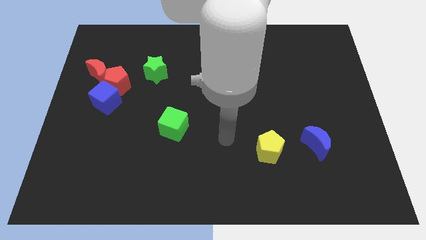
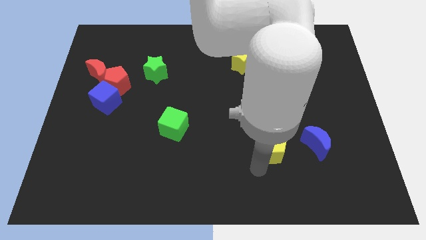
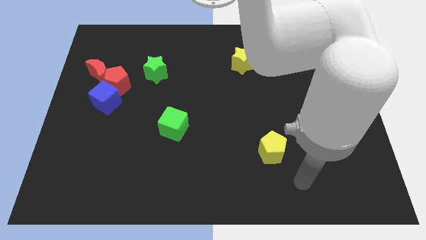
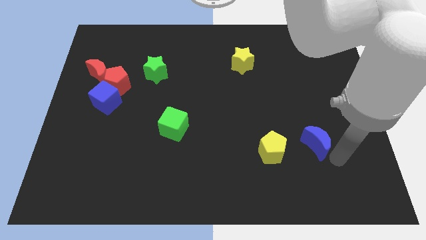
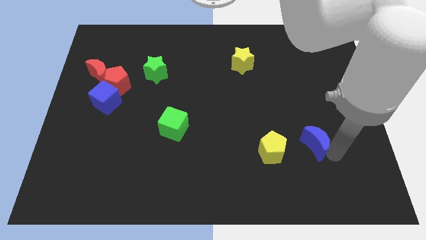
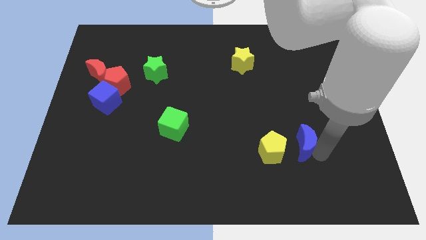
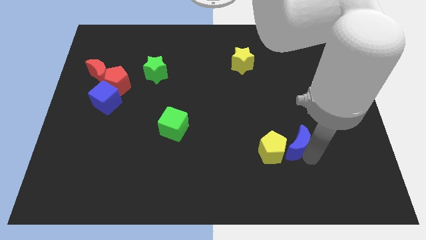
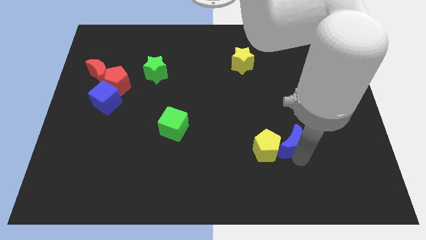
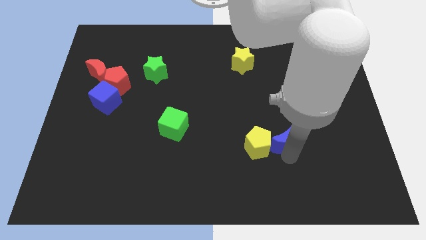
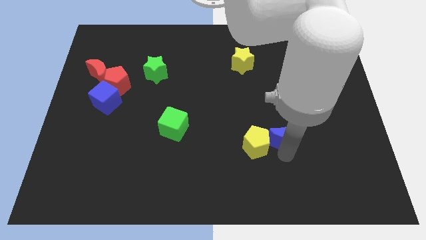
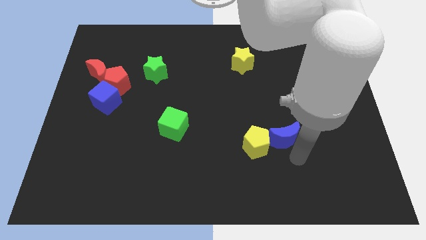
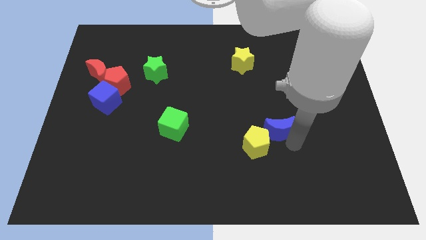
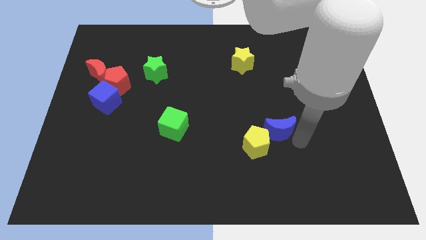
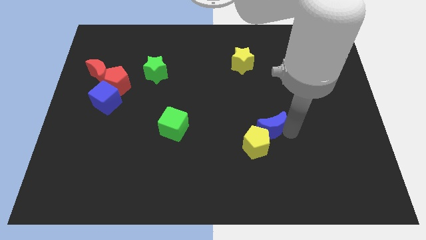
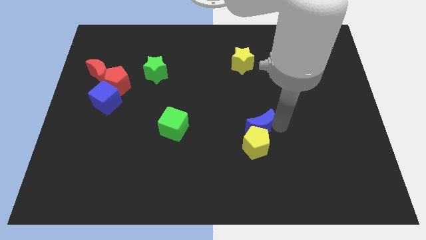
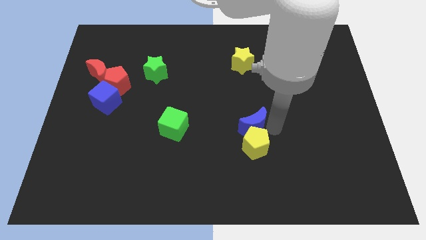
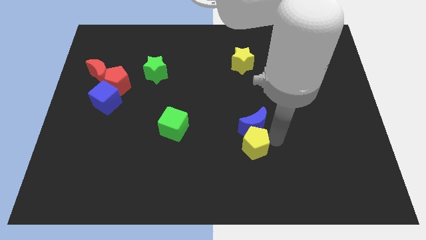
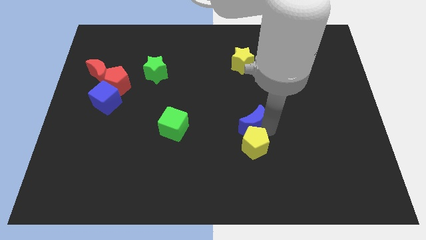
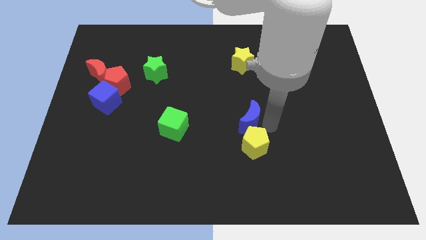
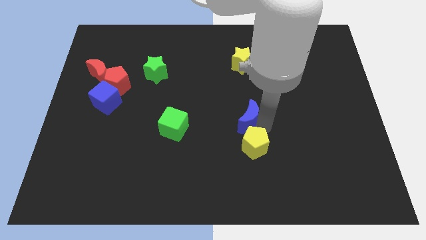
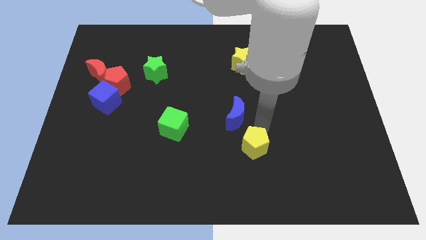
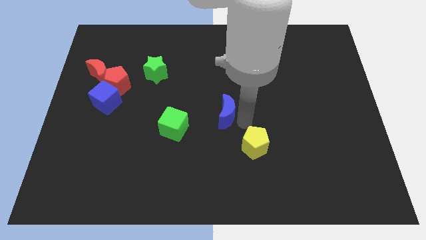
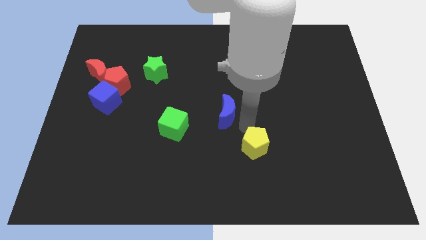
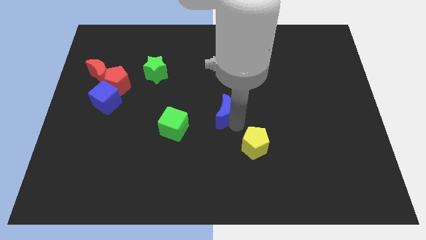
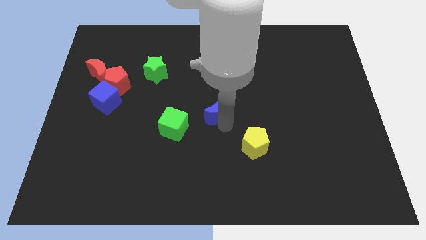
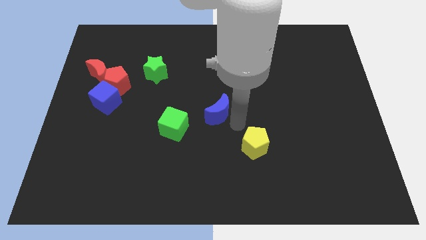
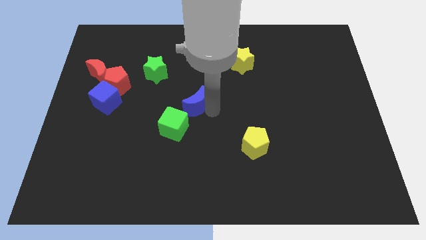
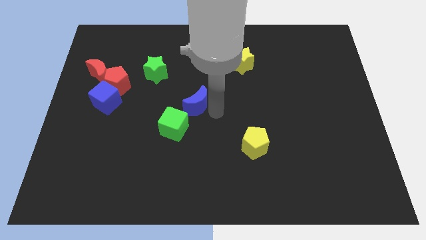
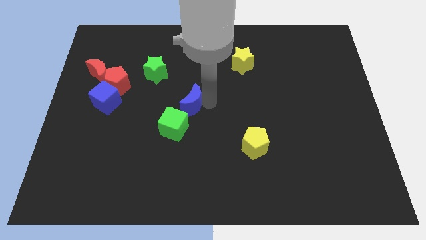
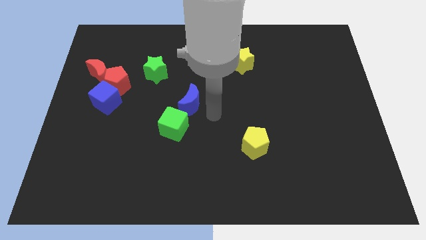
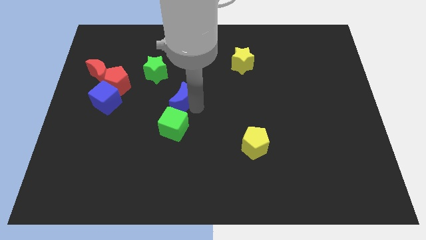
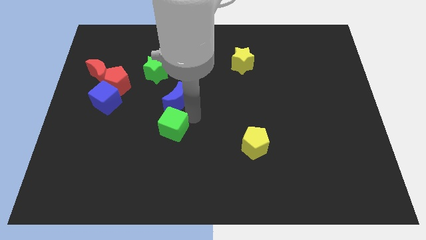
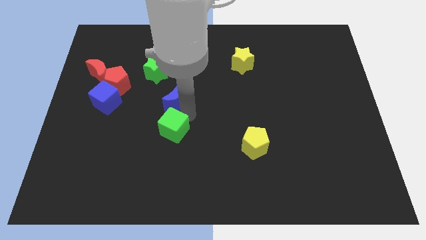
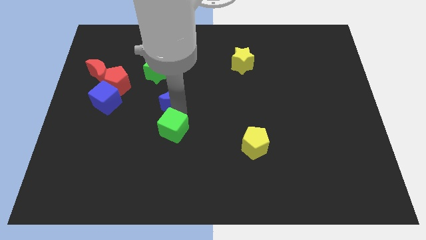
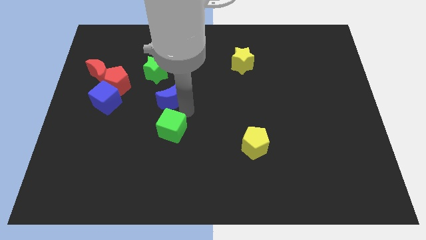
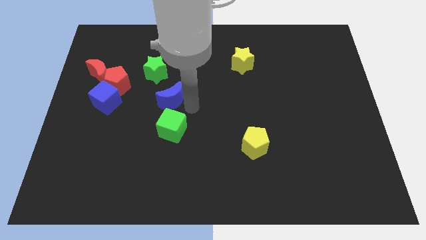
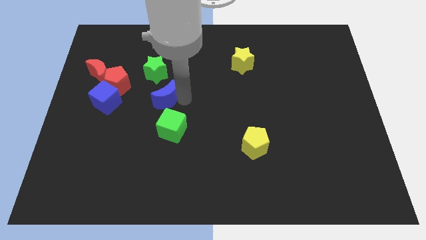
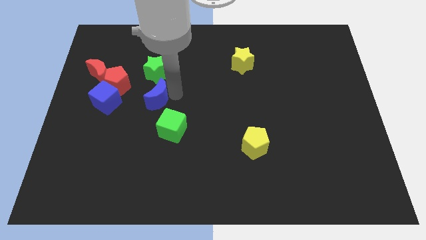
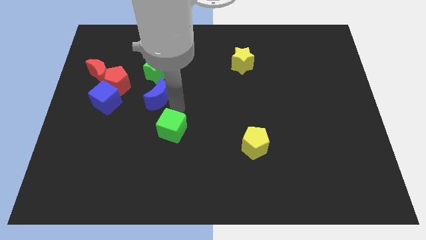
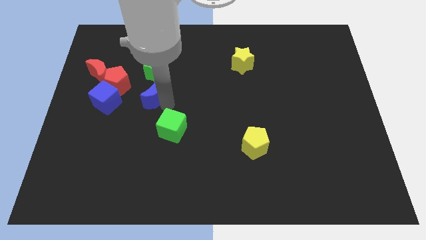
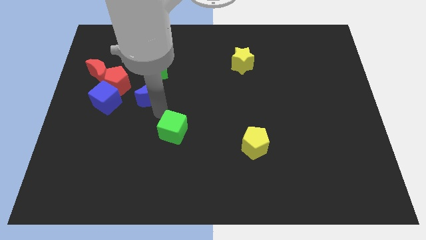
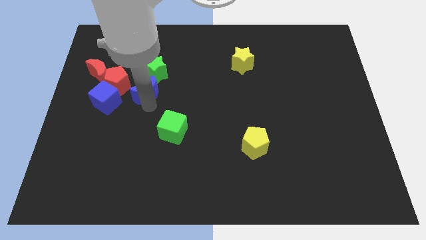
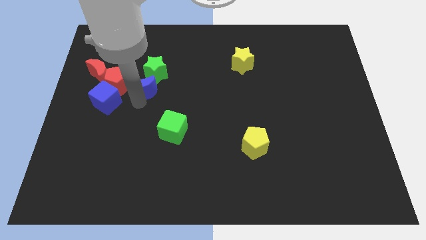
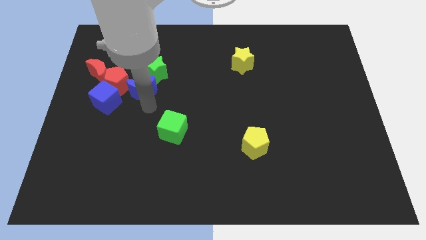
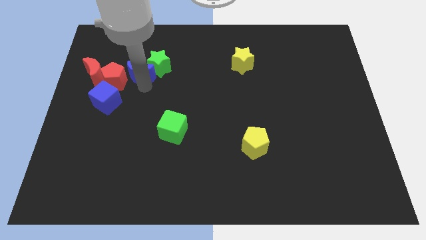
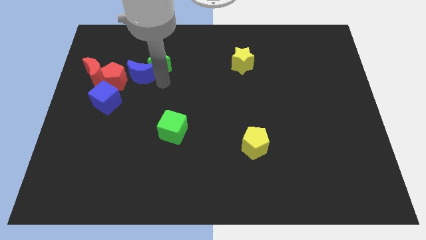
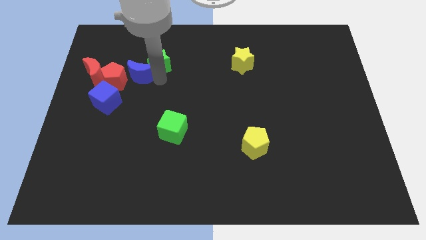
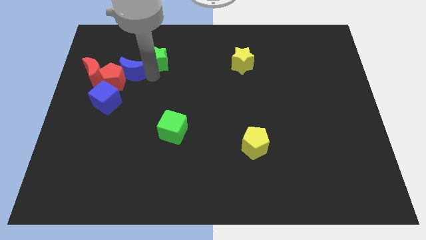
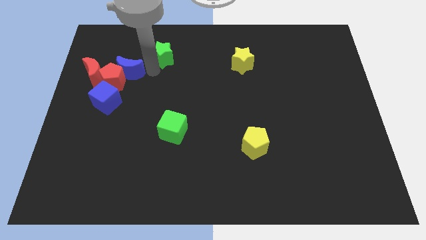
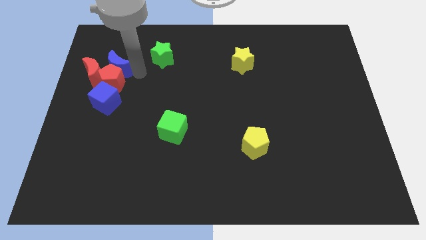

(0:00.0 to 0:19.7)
push the blue moon close to the red moon

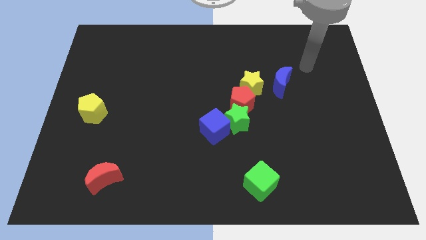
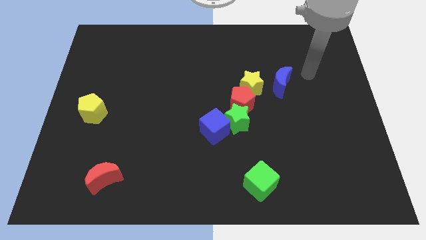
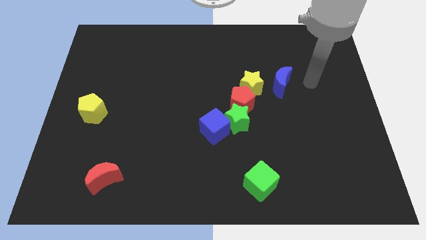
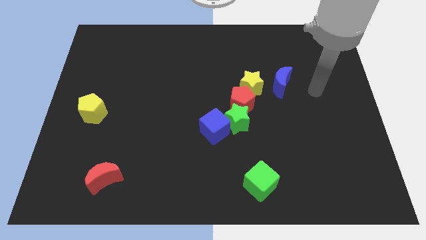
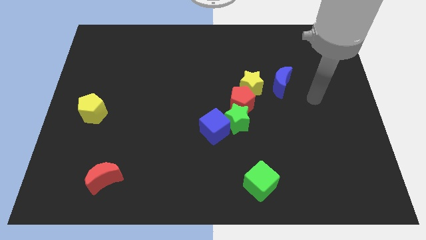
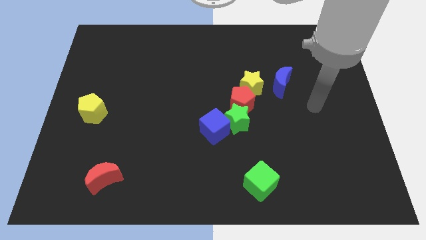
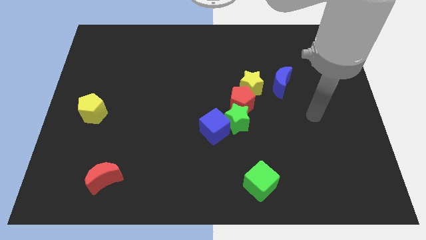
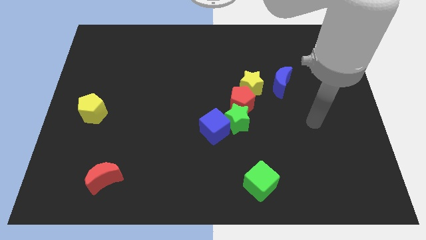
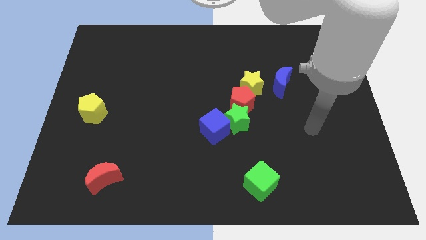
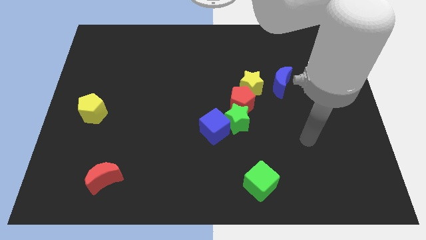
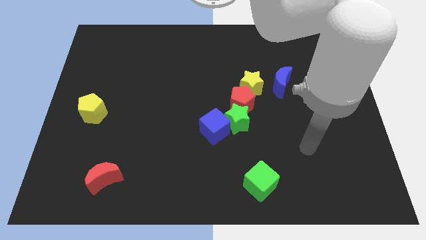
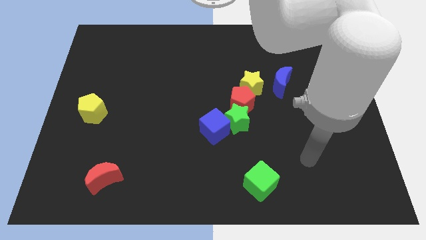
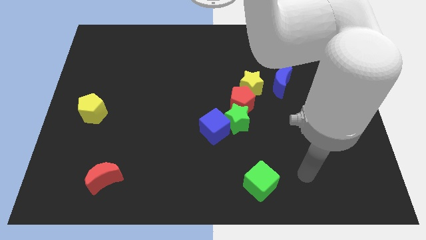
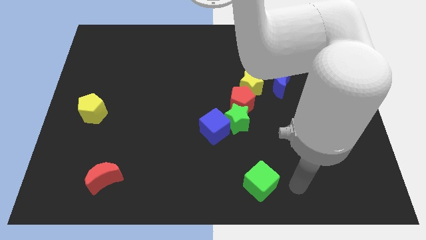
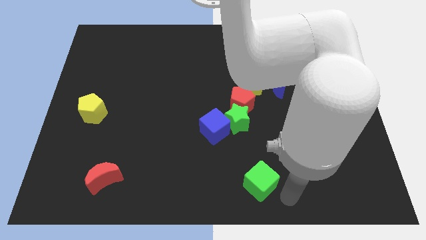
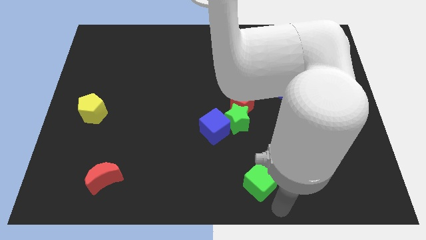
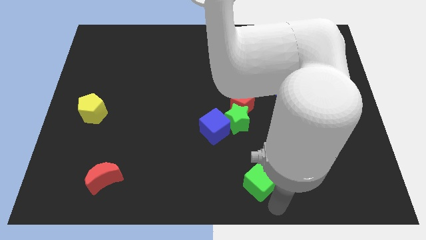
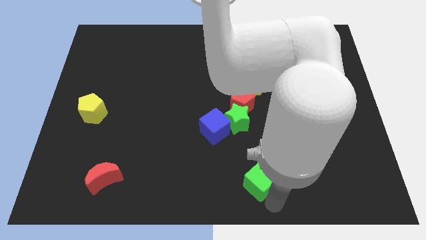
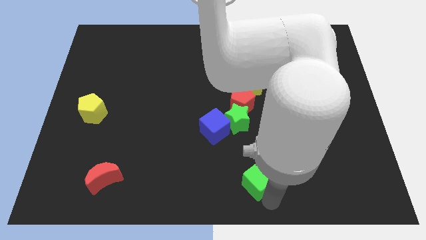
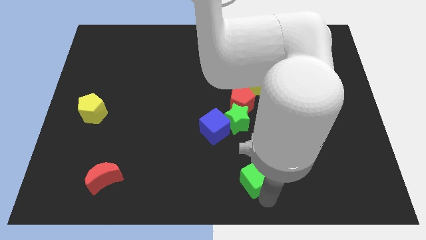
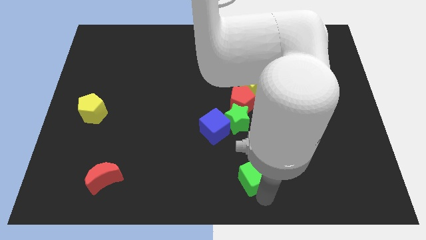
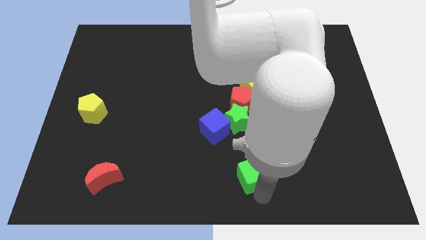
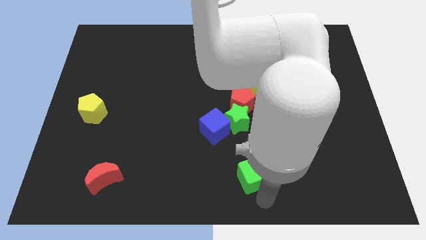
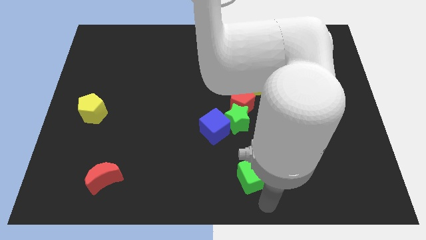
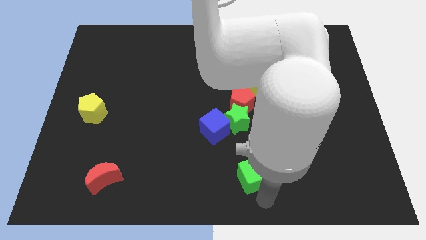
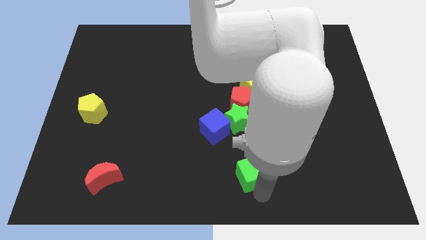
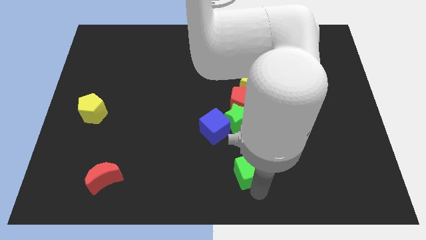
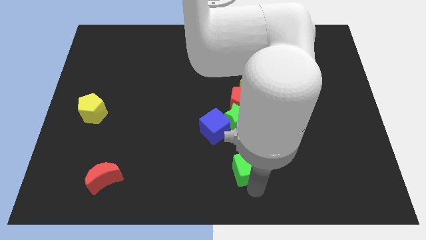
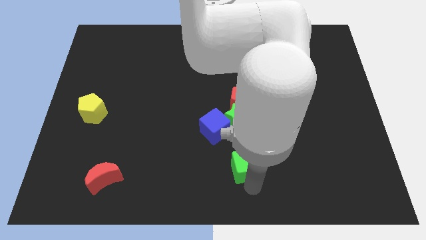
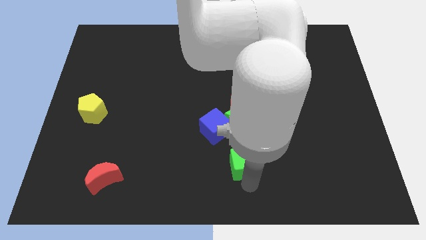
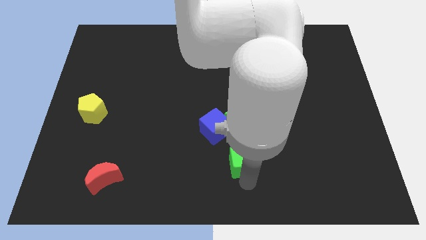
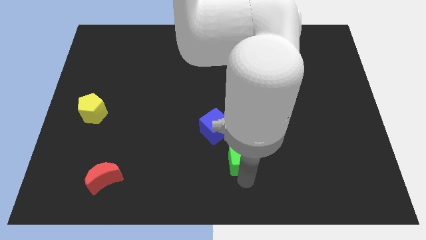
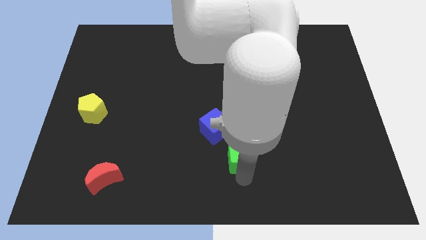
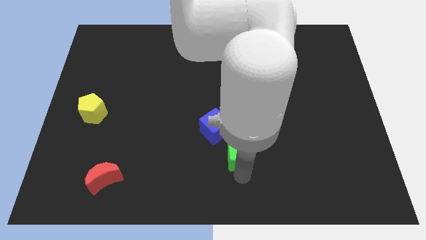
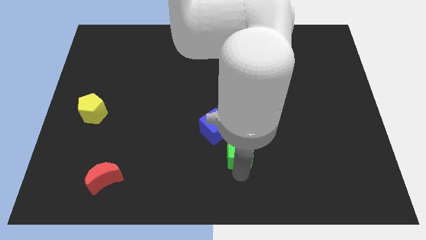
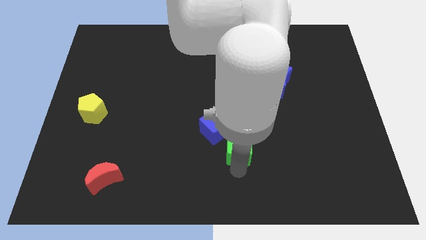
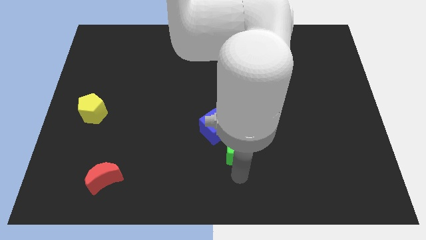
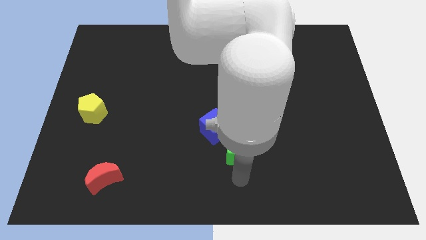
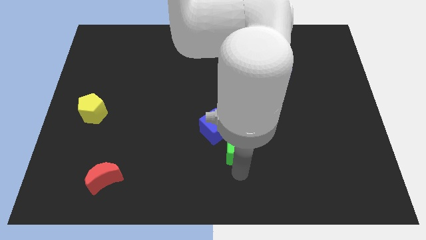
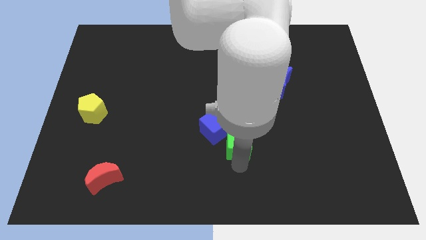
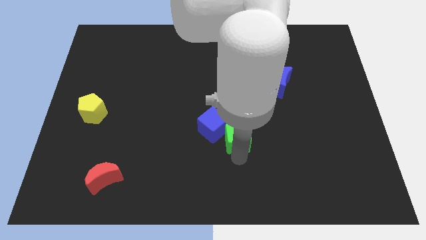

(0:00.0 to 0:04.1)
move the green cube towards the green star
